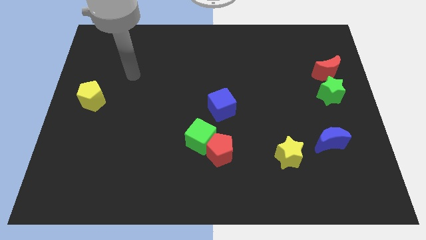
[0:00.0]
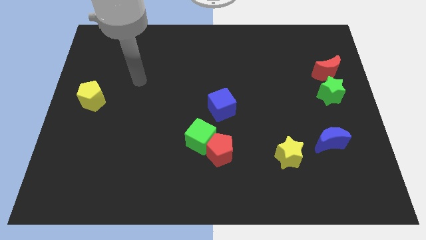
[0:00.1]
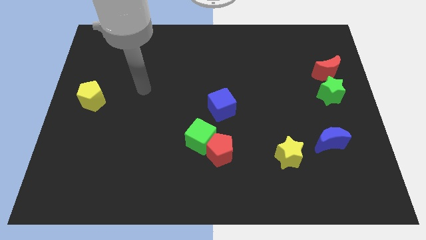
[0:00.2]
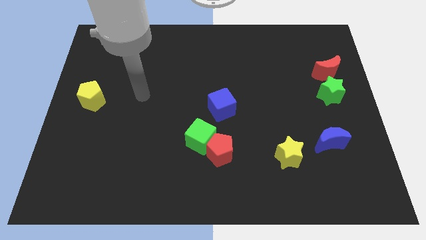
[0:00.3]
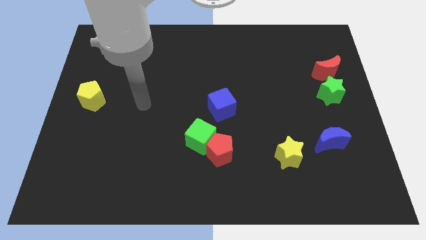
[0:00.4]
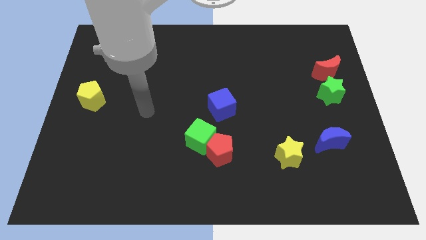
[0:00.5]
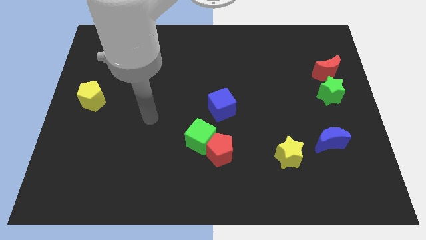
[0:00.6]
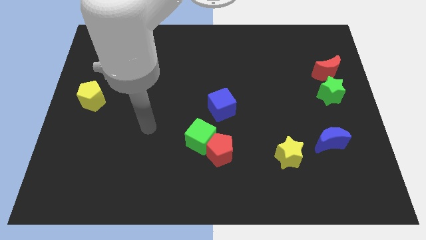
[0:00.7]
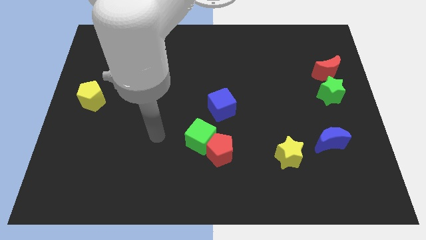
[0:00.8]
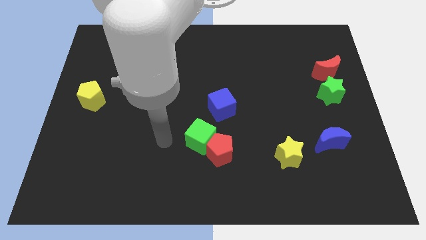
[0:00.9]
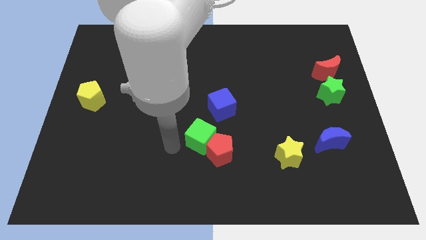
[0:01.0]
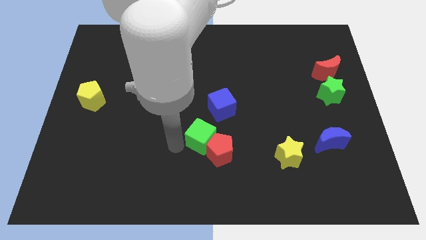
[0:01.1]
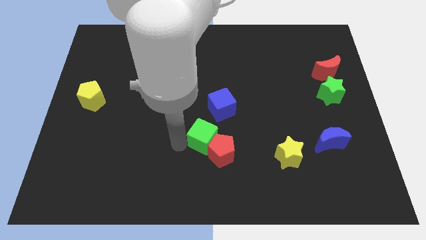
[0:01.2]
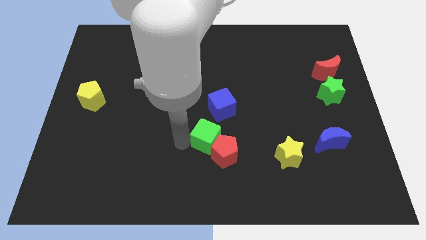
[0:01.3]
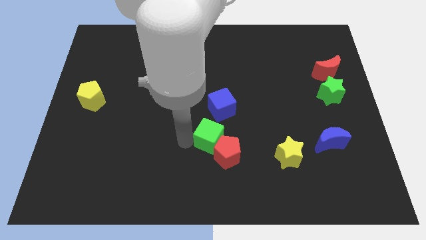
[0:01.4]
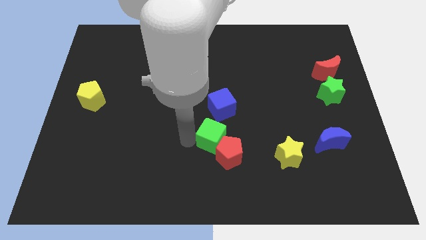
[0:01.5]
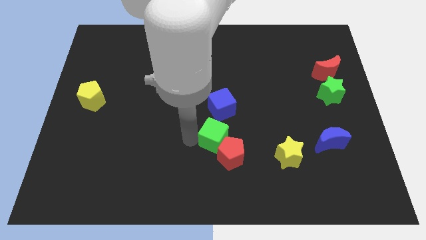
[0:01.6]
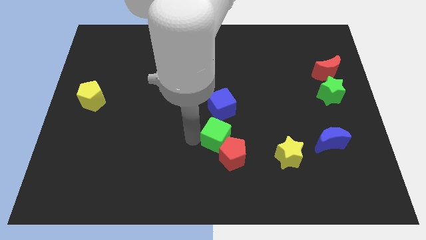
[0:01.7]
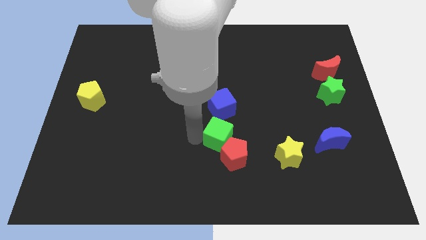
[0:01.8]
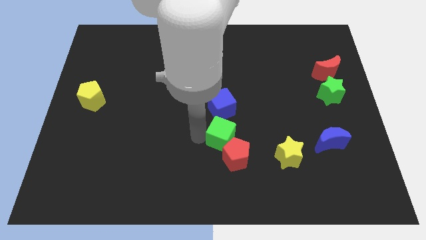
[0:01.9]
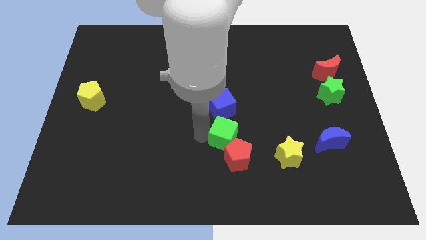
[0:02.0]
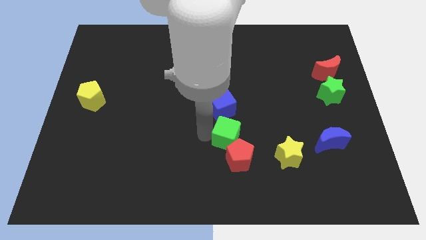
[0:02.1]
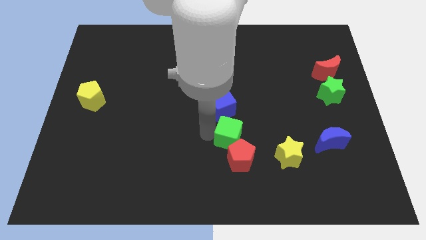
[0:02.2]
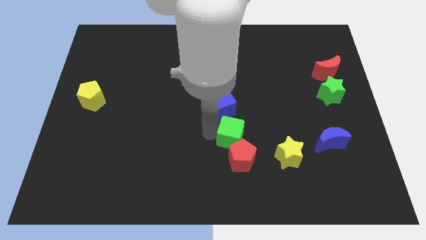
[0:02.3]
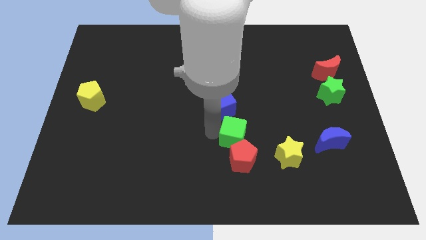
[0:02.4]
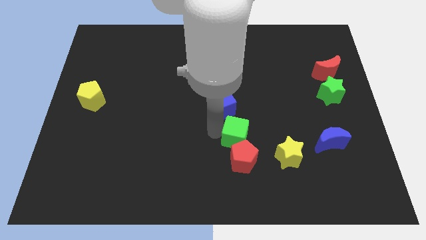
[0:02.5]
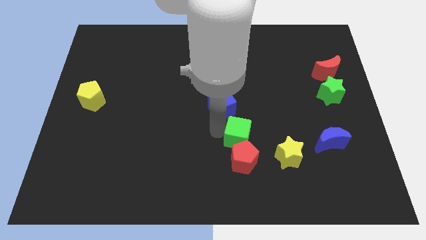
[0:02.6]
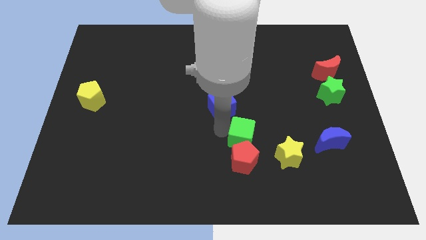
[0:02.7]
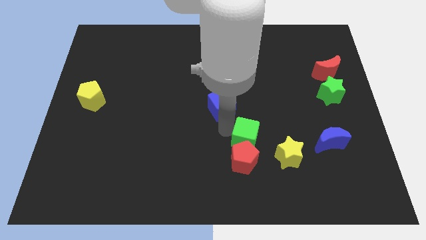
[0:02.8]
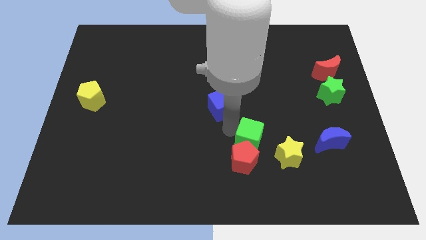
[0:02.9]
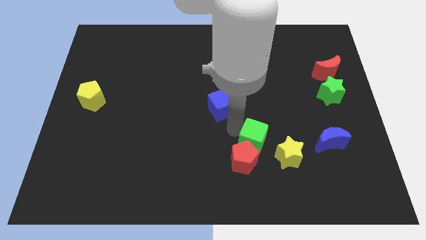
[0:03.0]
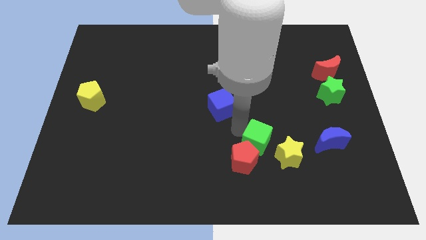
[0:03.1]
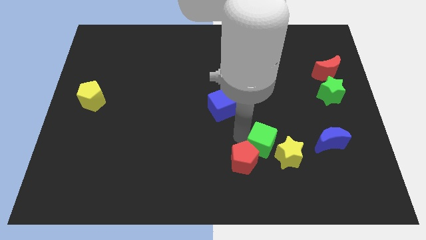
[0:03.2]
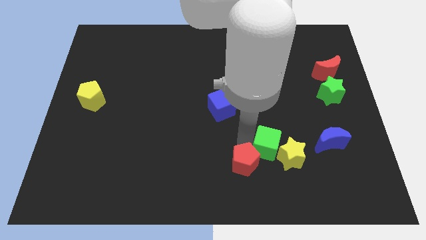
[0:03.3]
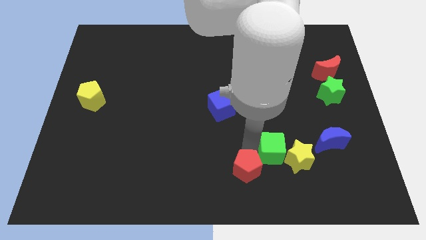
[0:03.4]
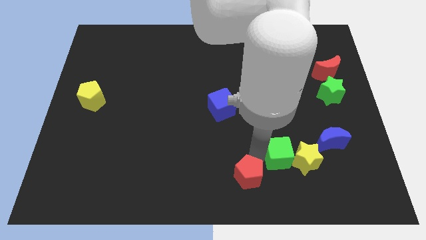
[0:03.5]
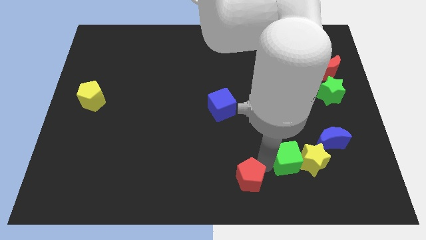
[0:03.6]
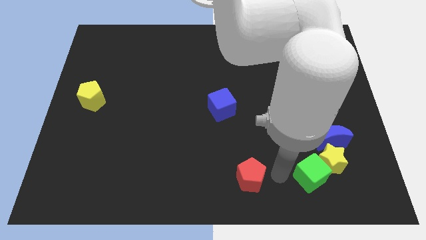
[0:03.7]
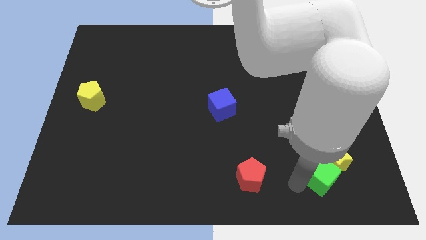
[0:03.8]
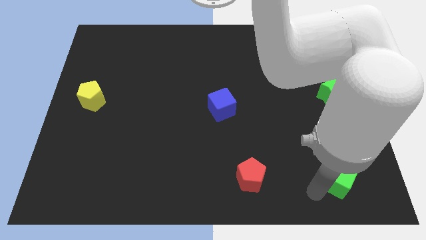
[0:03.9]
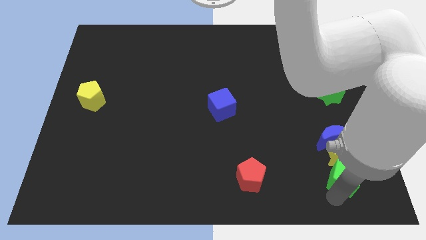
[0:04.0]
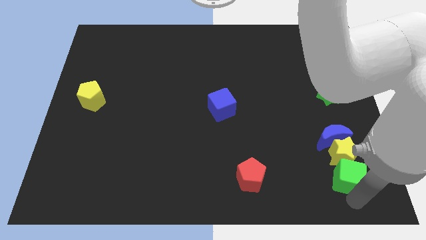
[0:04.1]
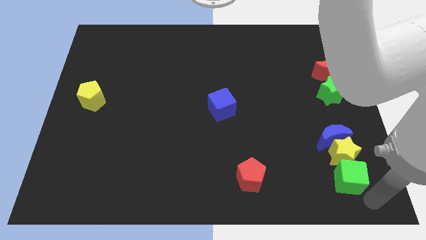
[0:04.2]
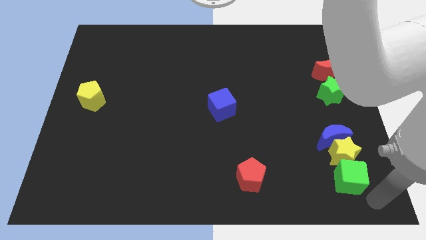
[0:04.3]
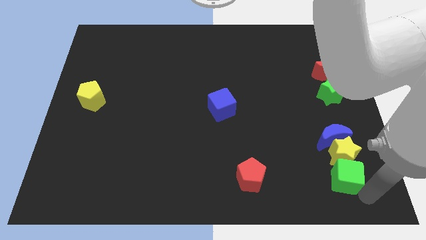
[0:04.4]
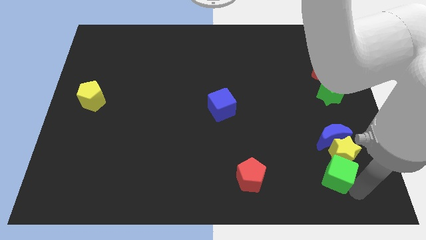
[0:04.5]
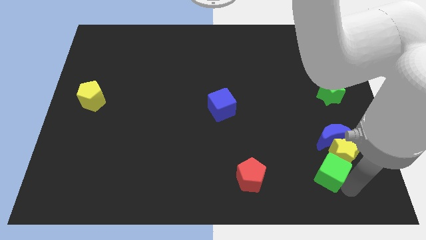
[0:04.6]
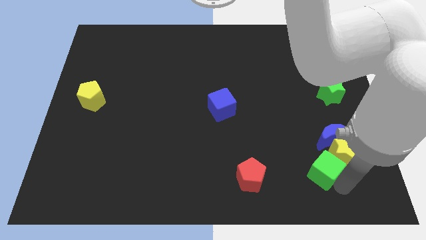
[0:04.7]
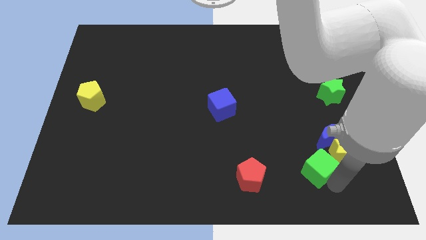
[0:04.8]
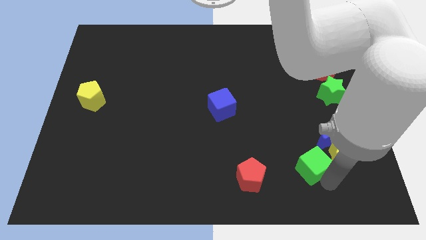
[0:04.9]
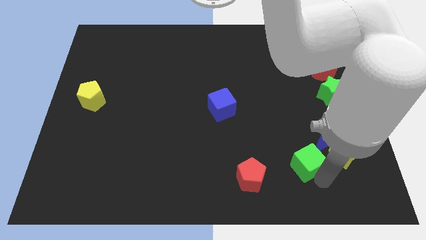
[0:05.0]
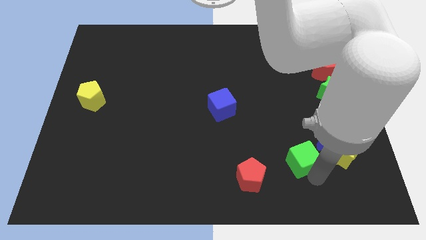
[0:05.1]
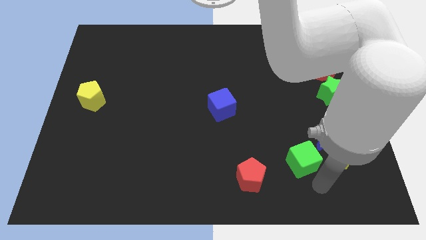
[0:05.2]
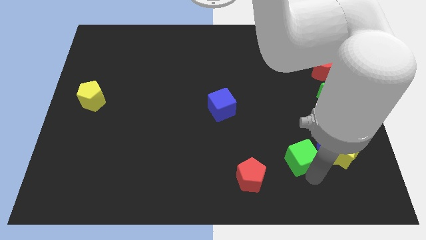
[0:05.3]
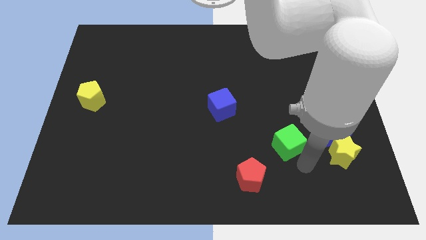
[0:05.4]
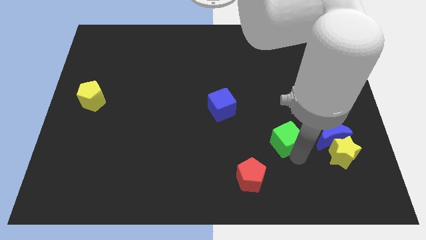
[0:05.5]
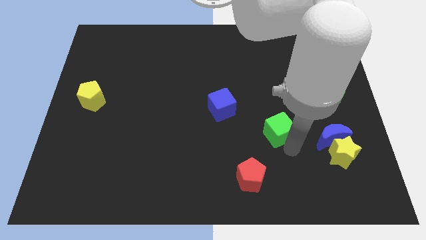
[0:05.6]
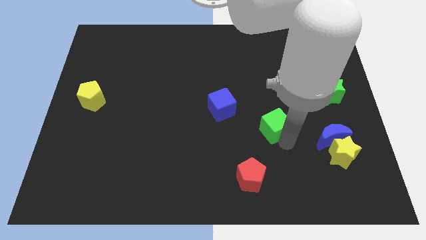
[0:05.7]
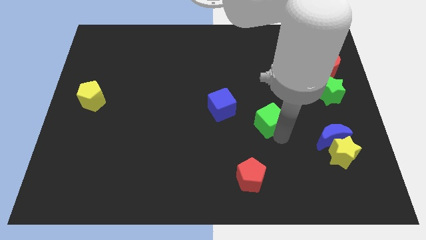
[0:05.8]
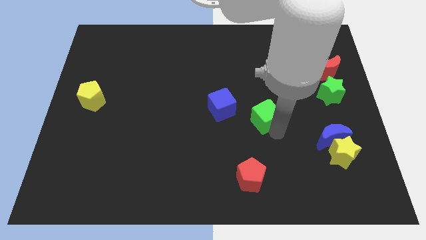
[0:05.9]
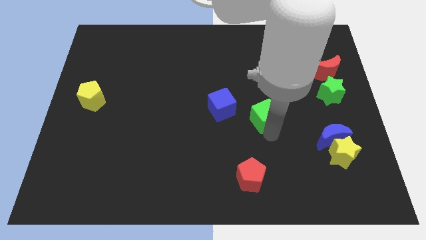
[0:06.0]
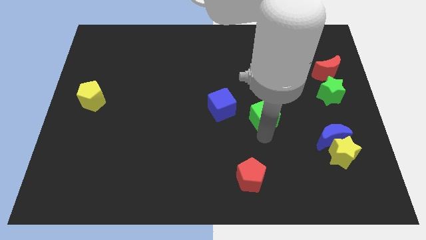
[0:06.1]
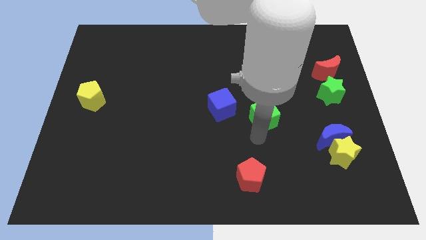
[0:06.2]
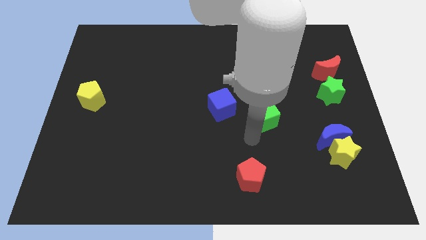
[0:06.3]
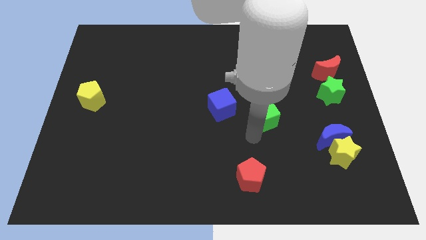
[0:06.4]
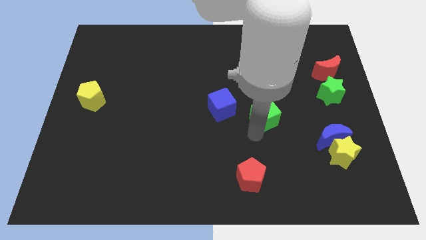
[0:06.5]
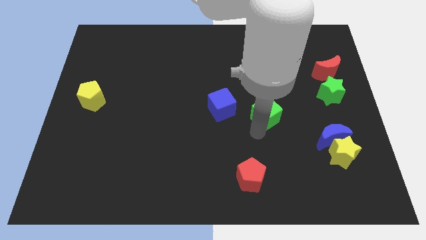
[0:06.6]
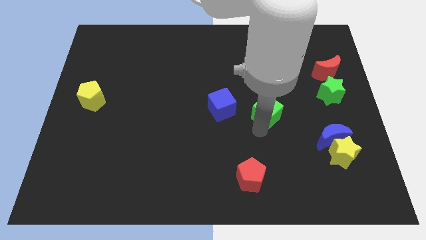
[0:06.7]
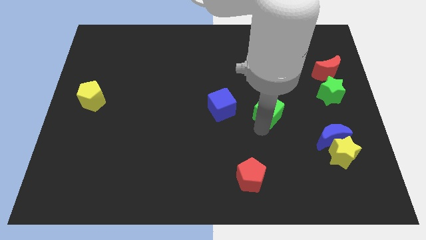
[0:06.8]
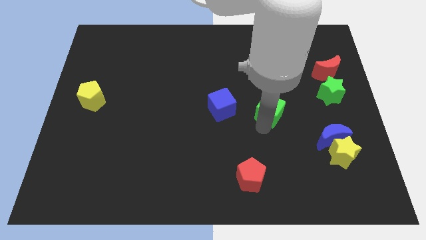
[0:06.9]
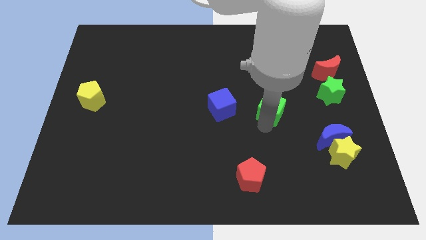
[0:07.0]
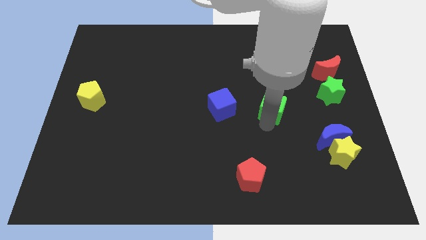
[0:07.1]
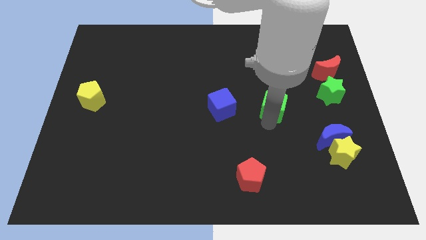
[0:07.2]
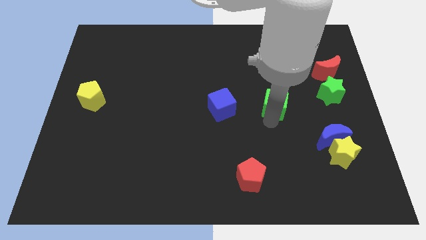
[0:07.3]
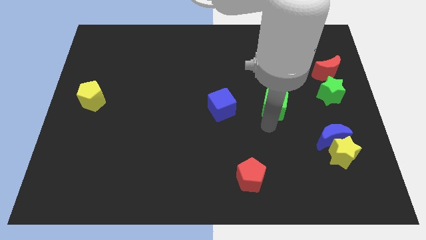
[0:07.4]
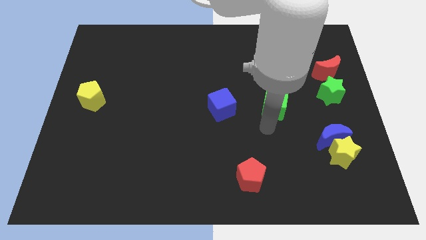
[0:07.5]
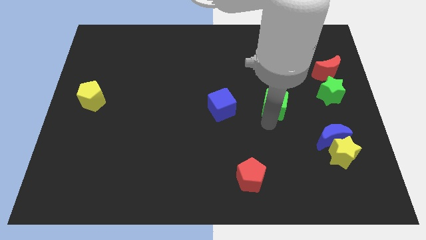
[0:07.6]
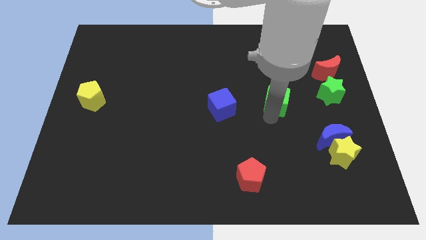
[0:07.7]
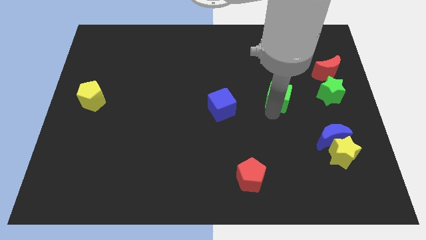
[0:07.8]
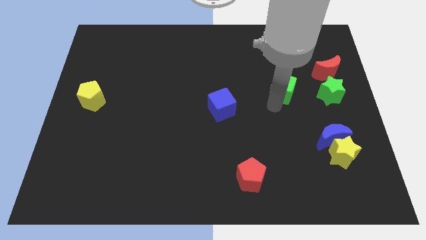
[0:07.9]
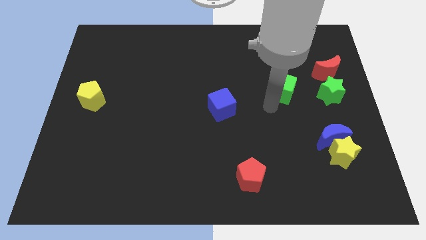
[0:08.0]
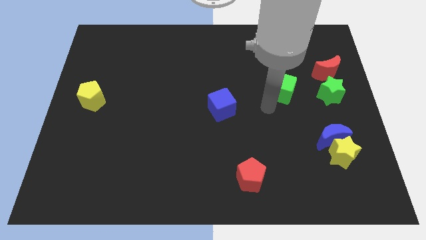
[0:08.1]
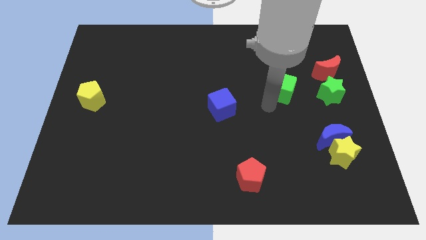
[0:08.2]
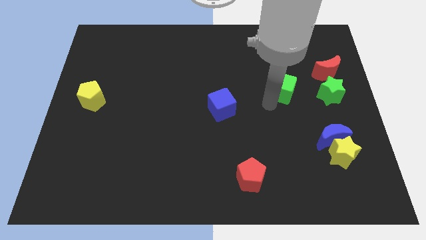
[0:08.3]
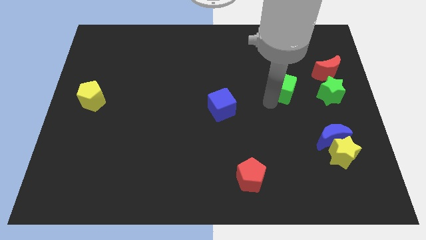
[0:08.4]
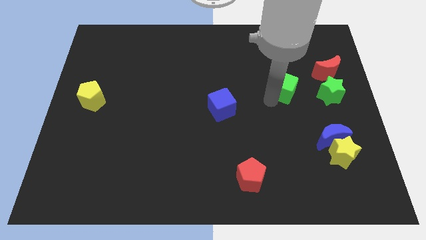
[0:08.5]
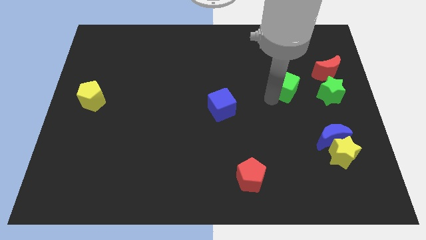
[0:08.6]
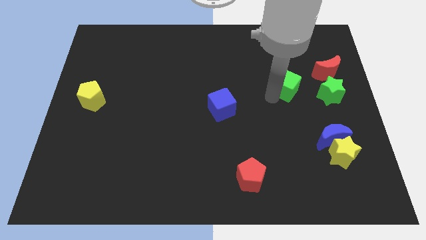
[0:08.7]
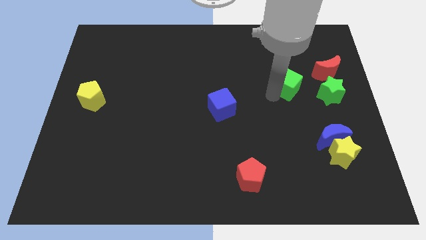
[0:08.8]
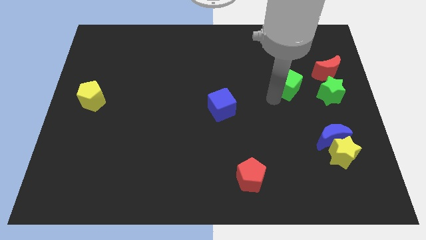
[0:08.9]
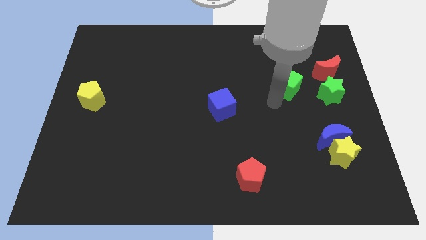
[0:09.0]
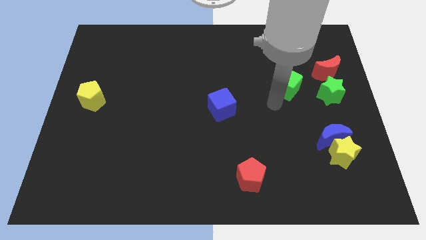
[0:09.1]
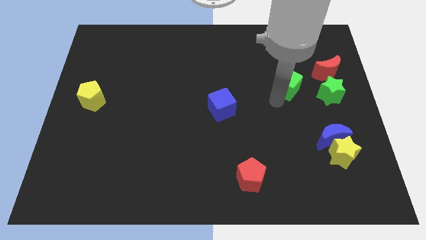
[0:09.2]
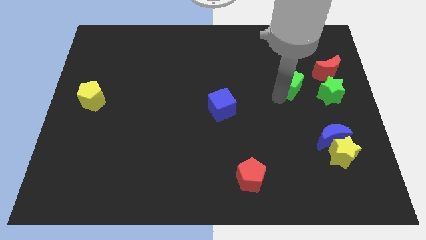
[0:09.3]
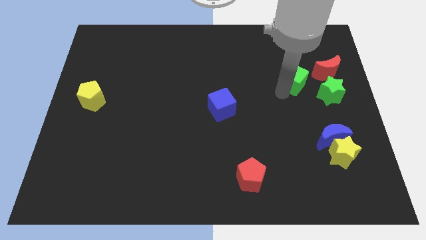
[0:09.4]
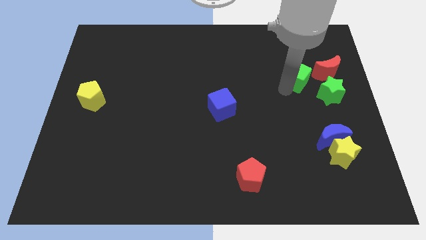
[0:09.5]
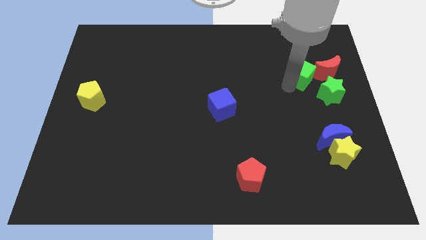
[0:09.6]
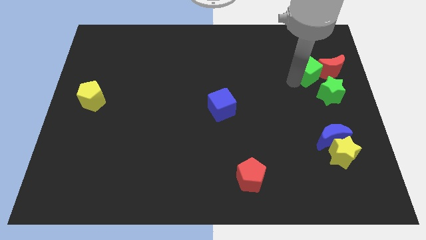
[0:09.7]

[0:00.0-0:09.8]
move the green cube to the top side of the green star
